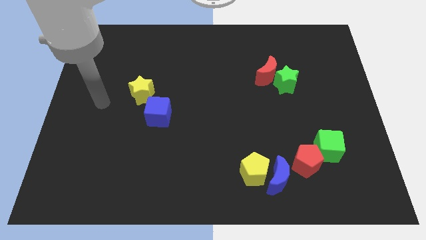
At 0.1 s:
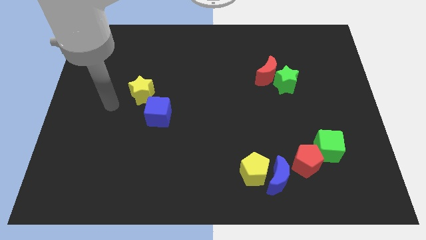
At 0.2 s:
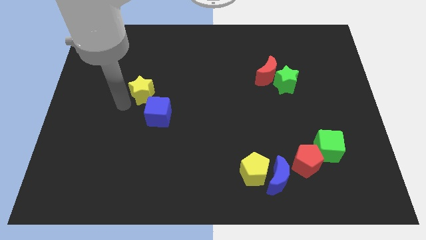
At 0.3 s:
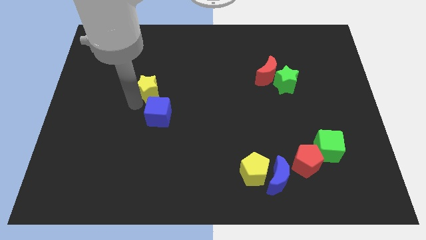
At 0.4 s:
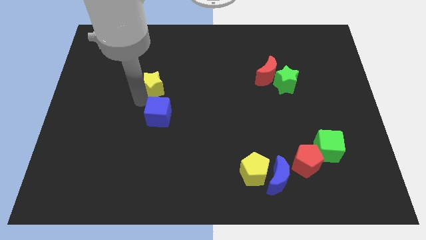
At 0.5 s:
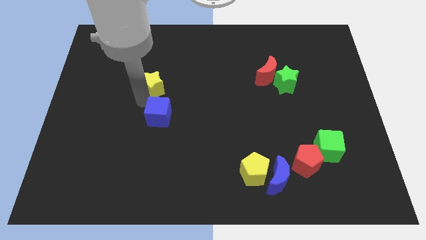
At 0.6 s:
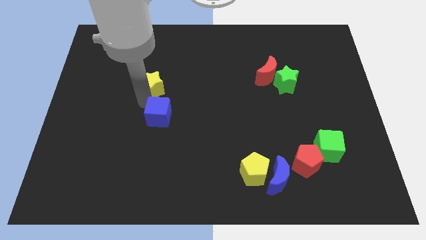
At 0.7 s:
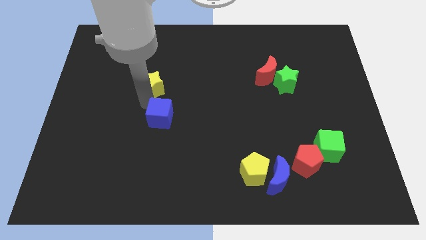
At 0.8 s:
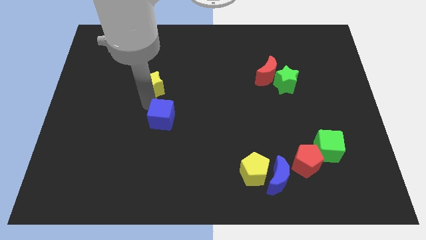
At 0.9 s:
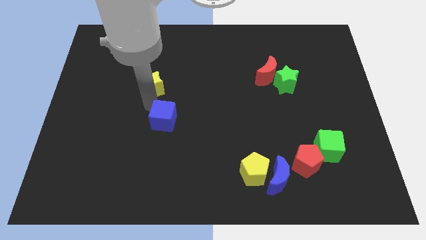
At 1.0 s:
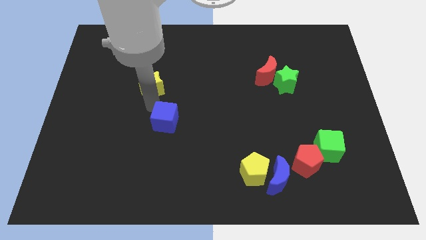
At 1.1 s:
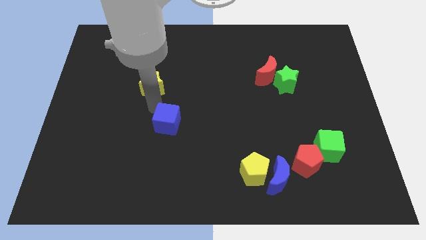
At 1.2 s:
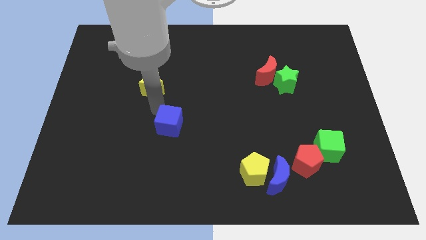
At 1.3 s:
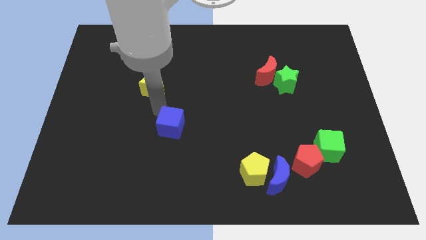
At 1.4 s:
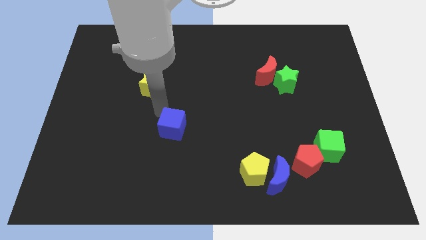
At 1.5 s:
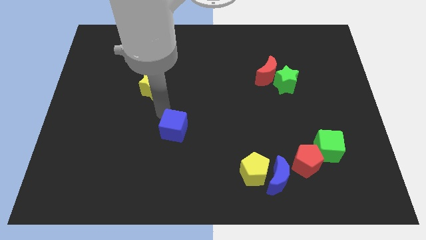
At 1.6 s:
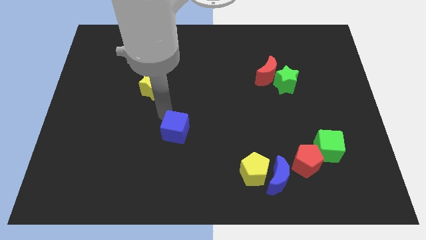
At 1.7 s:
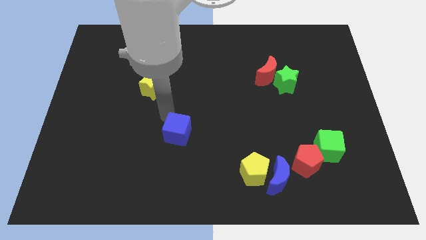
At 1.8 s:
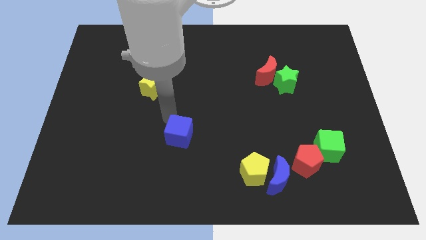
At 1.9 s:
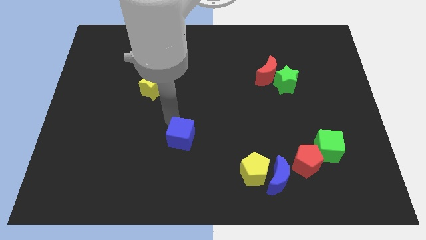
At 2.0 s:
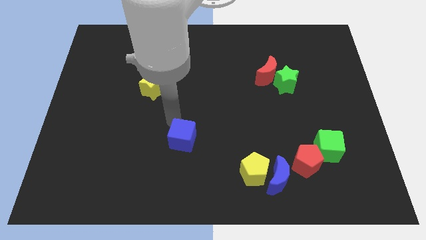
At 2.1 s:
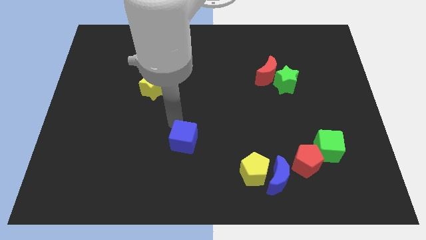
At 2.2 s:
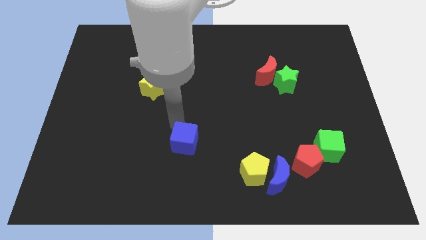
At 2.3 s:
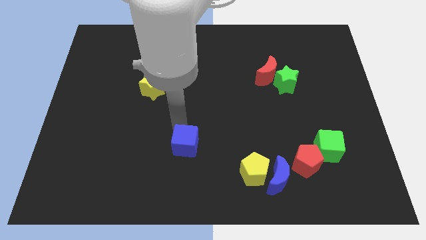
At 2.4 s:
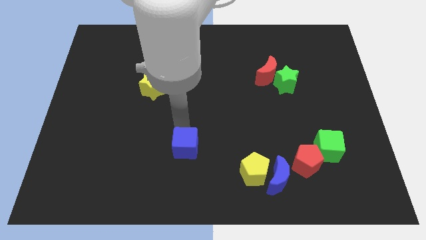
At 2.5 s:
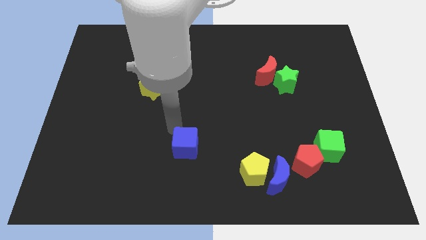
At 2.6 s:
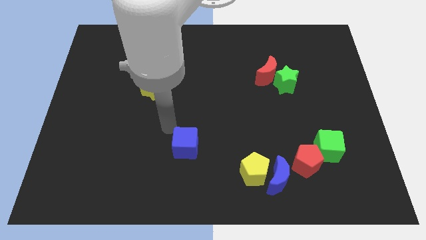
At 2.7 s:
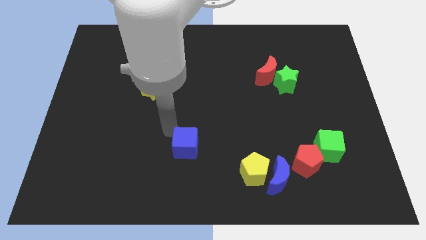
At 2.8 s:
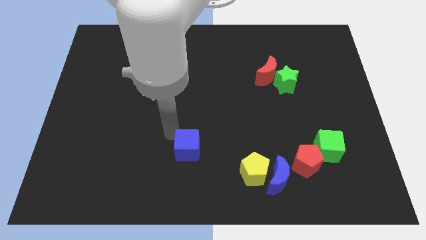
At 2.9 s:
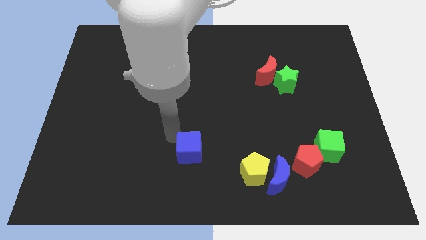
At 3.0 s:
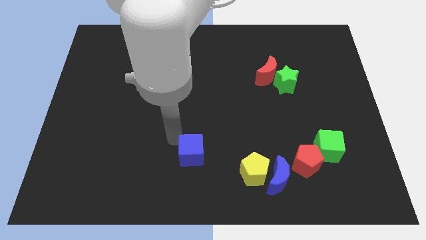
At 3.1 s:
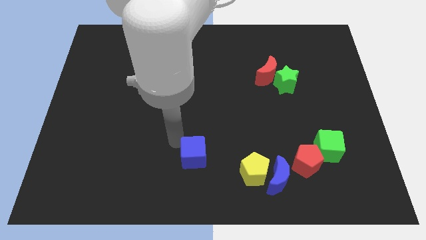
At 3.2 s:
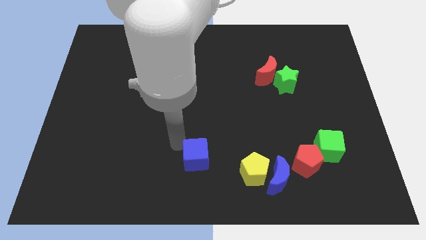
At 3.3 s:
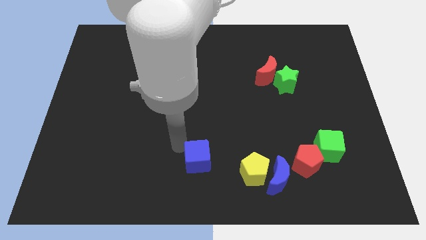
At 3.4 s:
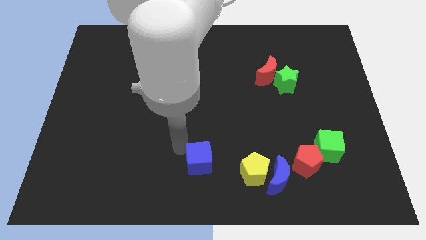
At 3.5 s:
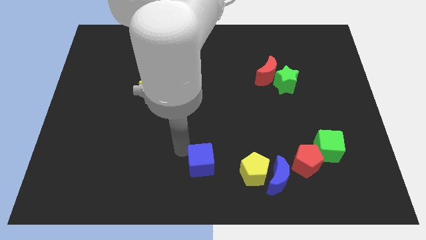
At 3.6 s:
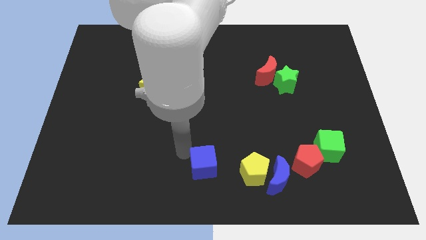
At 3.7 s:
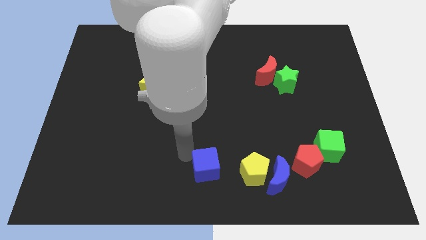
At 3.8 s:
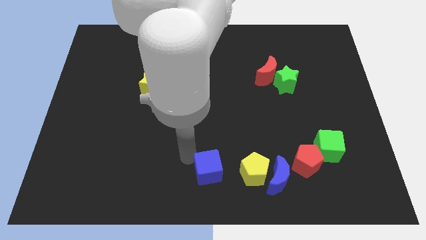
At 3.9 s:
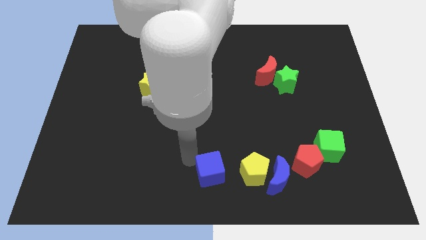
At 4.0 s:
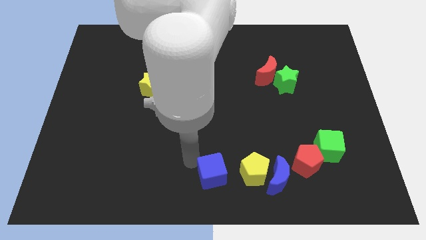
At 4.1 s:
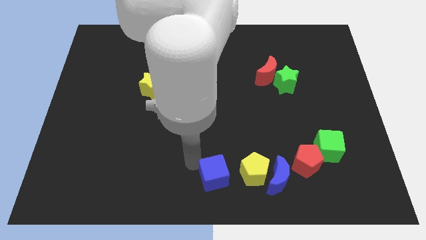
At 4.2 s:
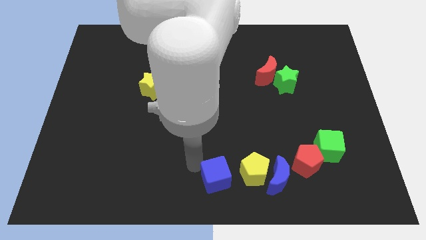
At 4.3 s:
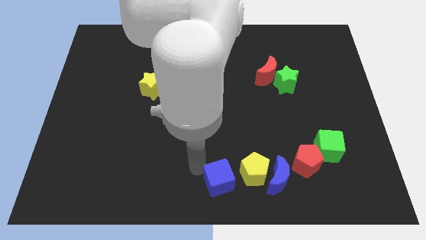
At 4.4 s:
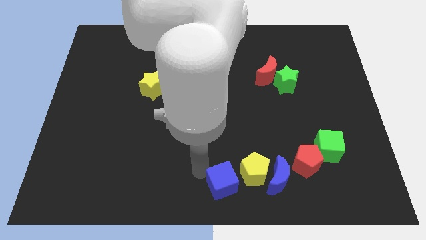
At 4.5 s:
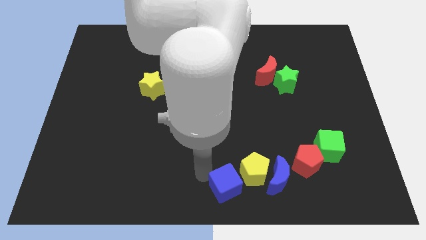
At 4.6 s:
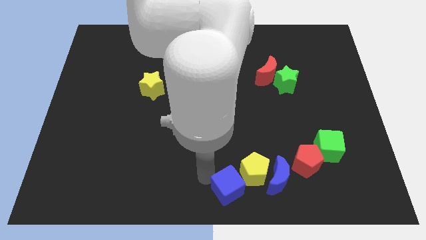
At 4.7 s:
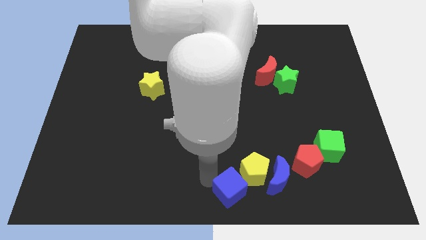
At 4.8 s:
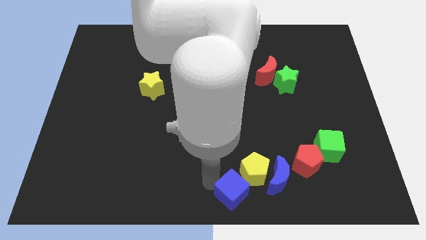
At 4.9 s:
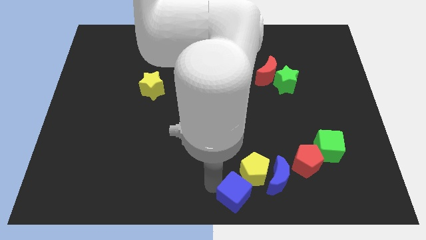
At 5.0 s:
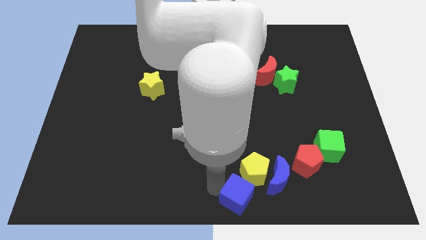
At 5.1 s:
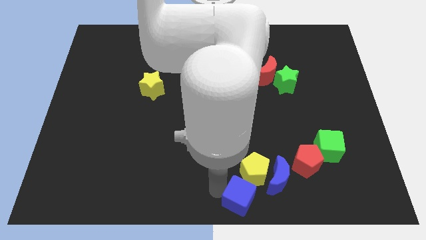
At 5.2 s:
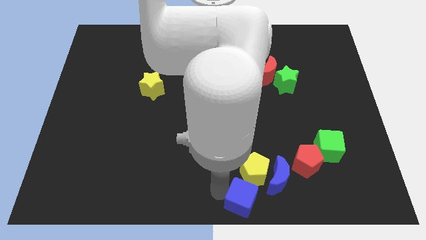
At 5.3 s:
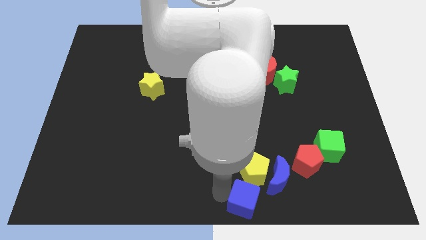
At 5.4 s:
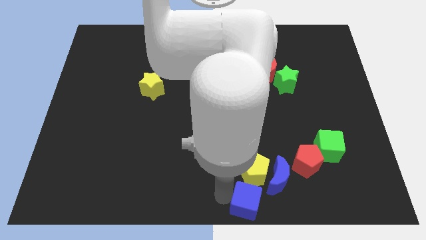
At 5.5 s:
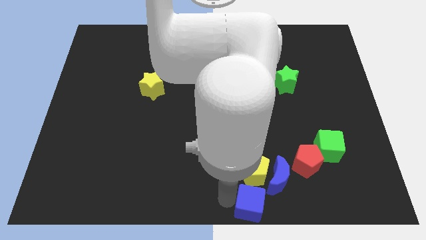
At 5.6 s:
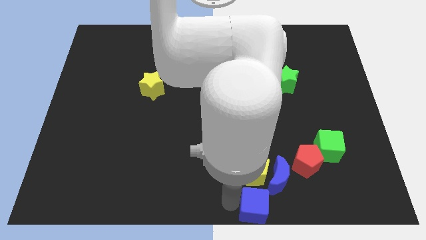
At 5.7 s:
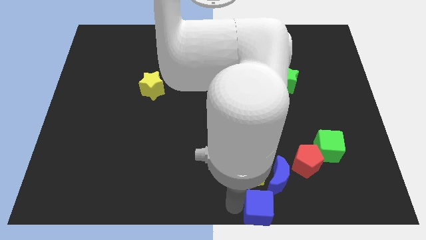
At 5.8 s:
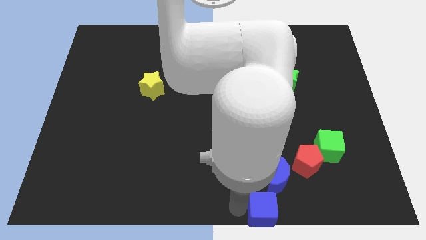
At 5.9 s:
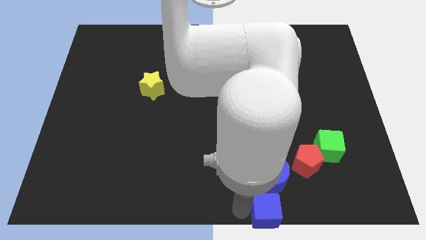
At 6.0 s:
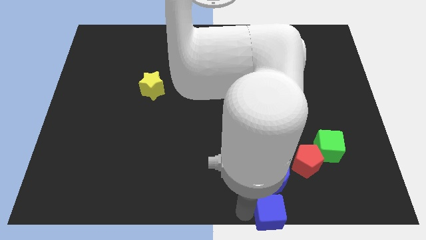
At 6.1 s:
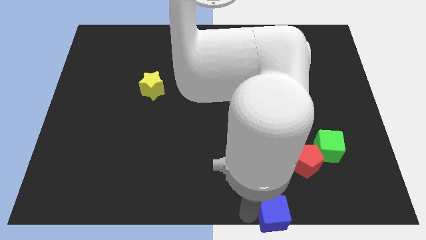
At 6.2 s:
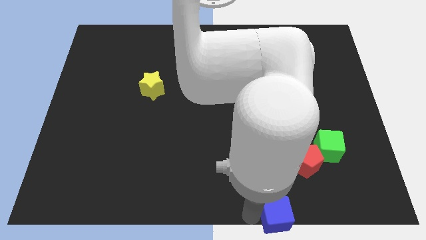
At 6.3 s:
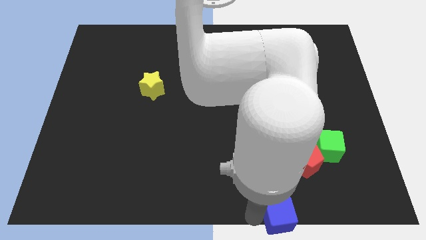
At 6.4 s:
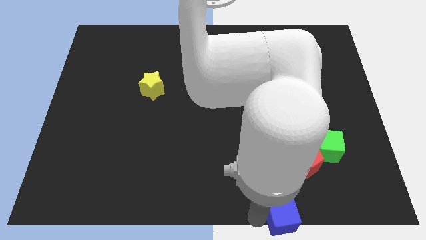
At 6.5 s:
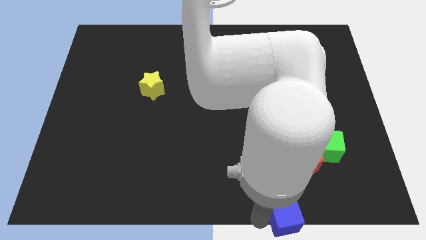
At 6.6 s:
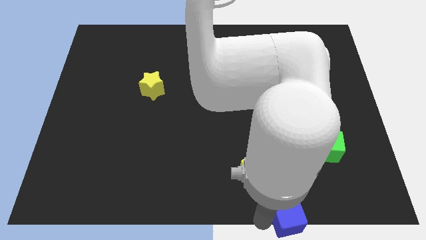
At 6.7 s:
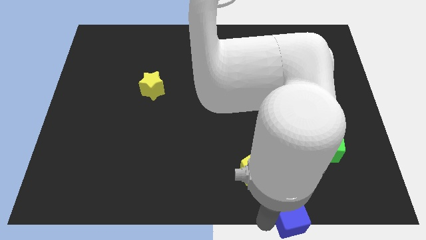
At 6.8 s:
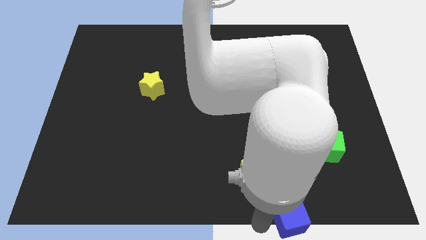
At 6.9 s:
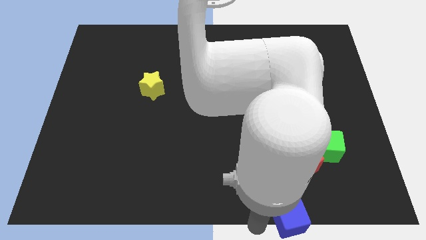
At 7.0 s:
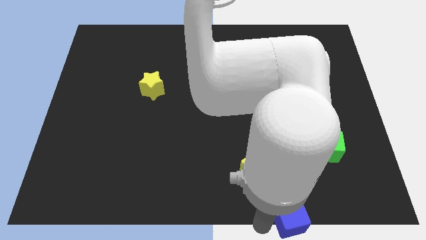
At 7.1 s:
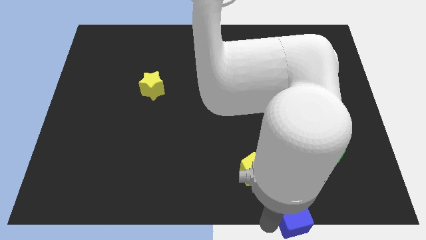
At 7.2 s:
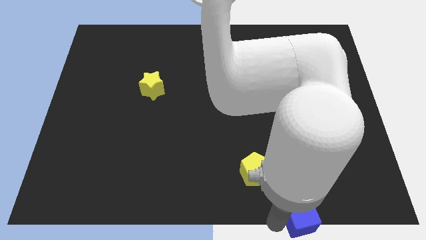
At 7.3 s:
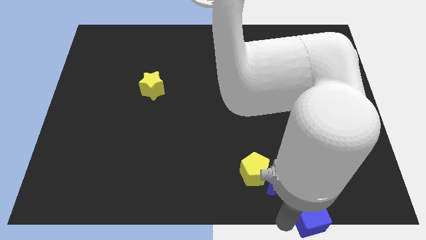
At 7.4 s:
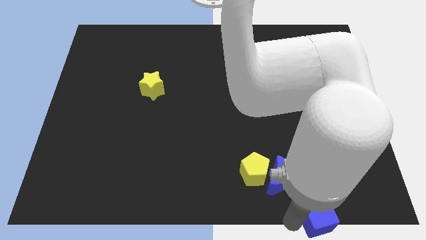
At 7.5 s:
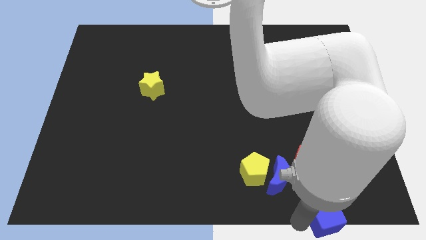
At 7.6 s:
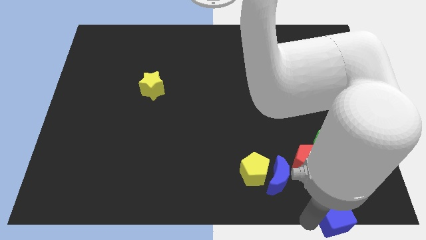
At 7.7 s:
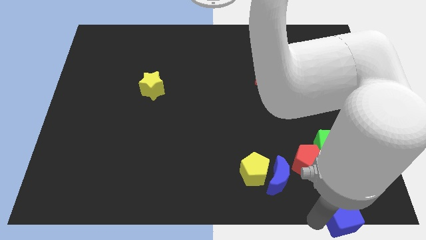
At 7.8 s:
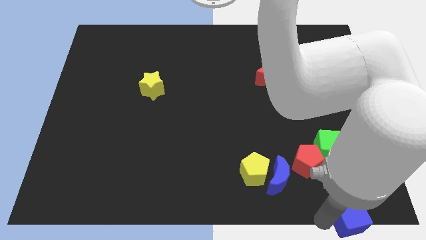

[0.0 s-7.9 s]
put the blue cube to the bottom right corner
